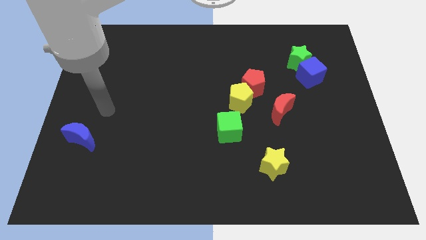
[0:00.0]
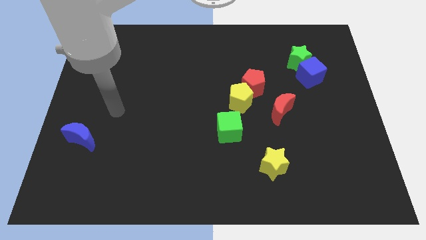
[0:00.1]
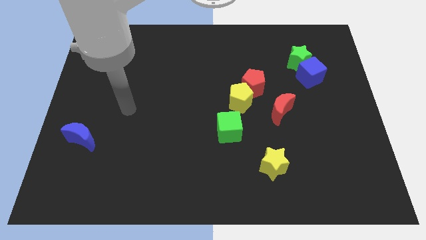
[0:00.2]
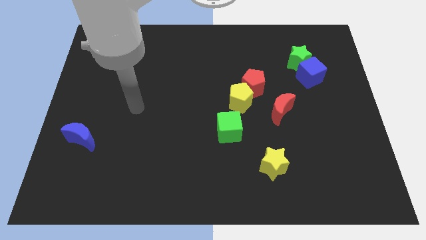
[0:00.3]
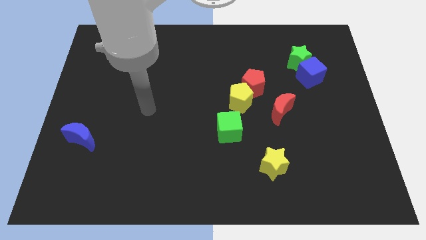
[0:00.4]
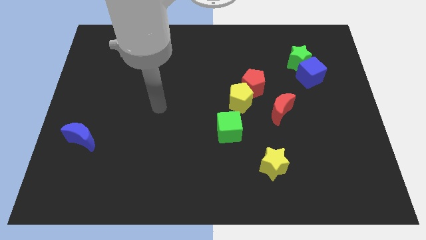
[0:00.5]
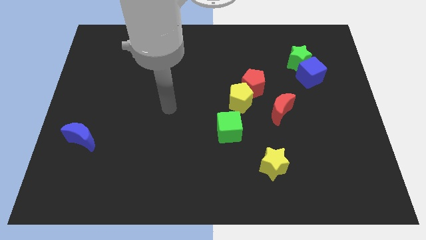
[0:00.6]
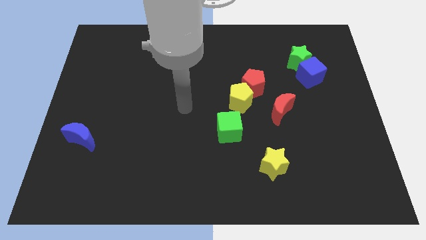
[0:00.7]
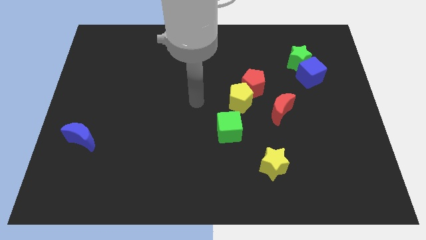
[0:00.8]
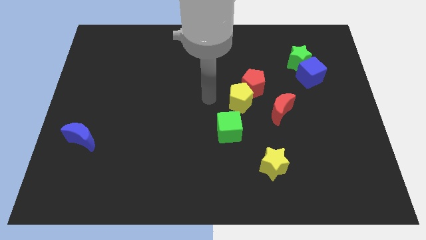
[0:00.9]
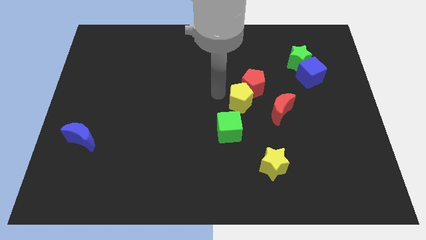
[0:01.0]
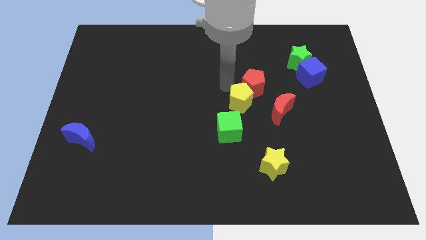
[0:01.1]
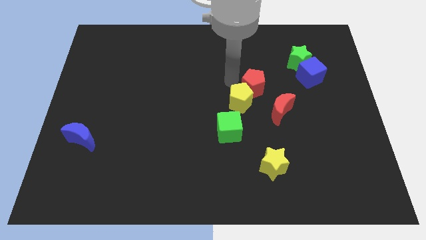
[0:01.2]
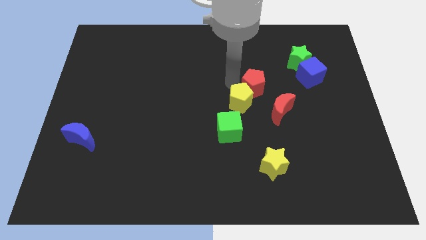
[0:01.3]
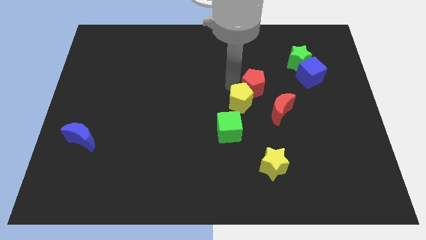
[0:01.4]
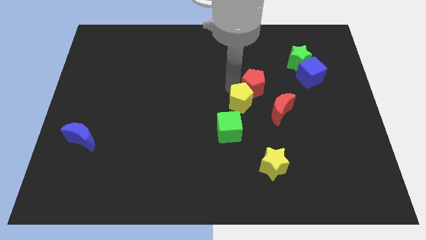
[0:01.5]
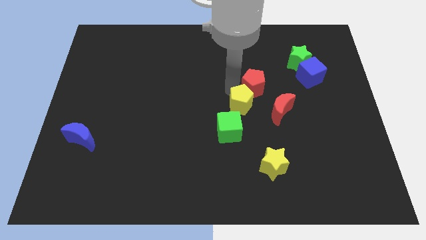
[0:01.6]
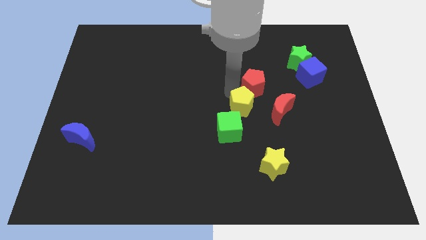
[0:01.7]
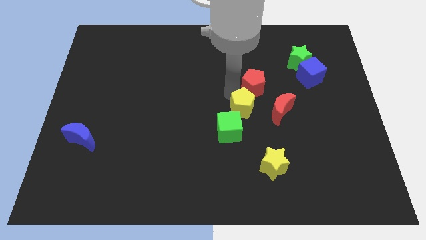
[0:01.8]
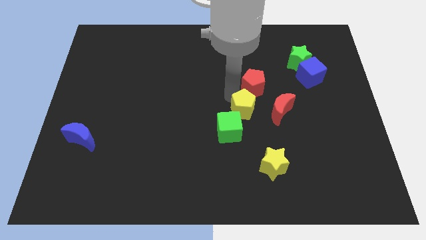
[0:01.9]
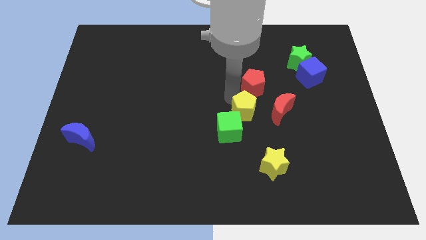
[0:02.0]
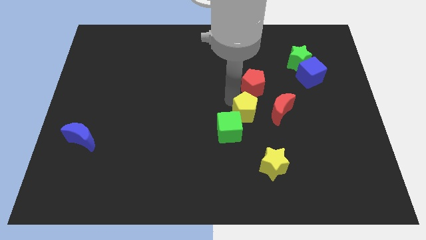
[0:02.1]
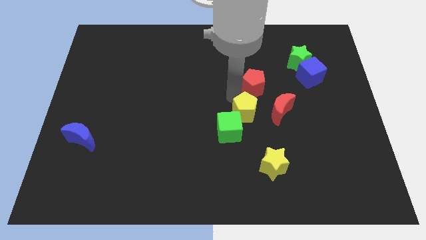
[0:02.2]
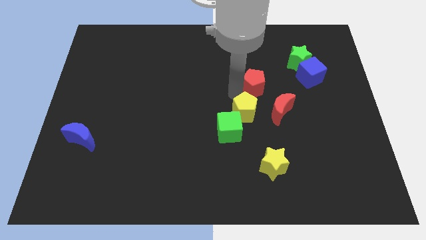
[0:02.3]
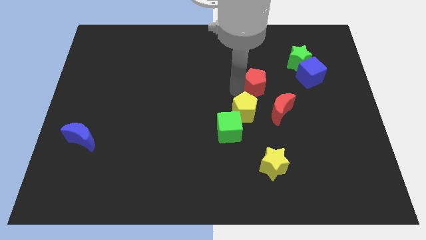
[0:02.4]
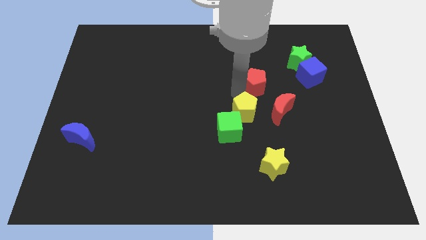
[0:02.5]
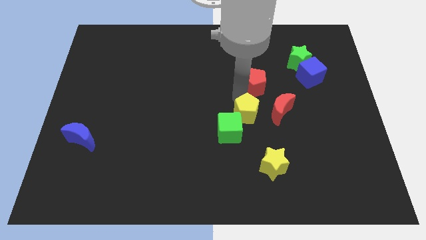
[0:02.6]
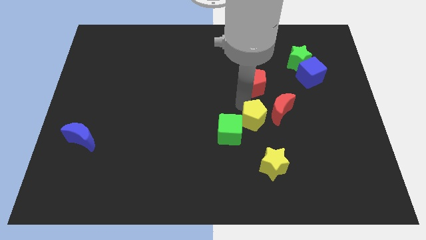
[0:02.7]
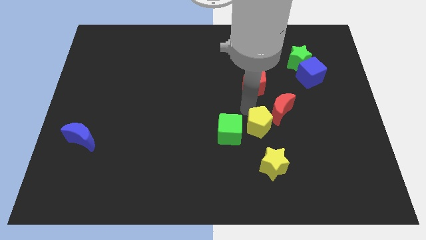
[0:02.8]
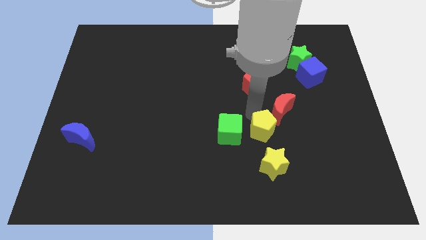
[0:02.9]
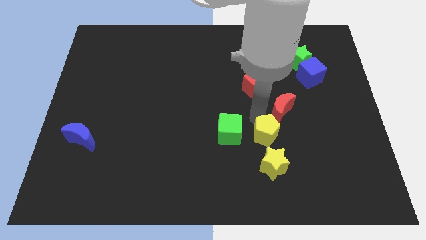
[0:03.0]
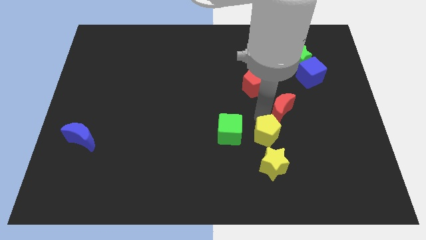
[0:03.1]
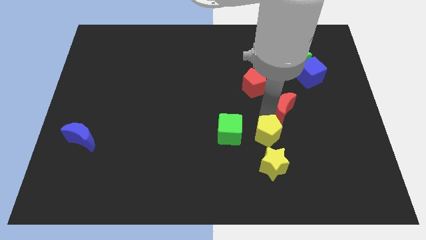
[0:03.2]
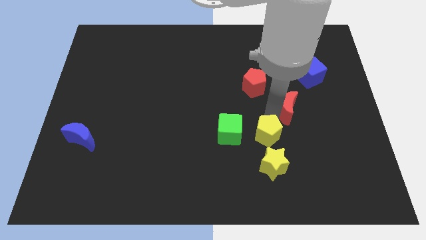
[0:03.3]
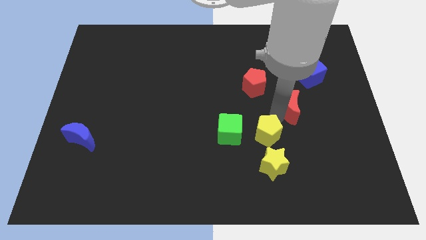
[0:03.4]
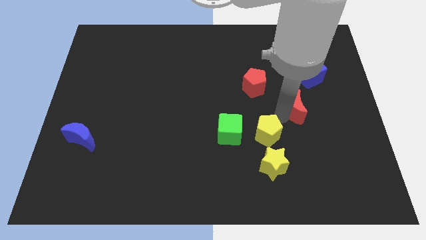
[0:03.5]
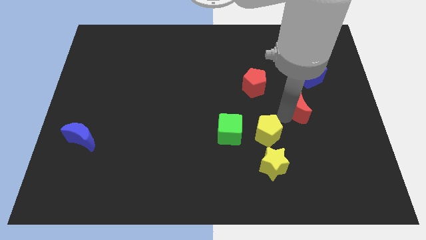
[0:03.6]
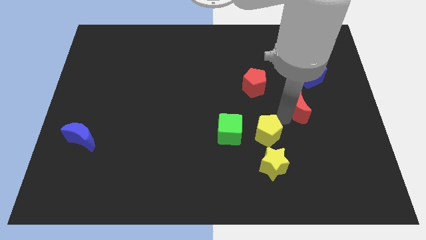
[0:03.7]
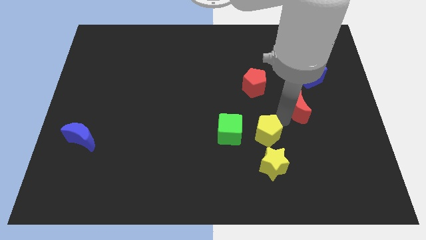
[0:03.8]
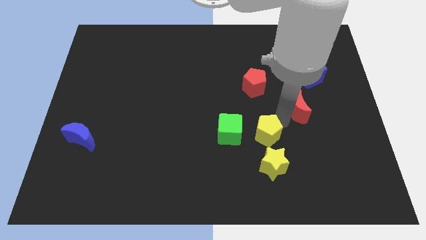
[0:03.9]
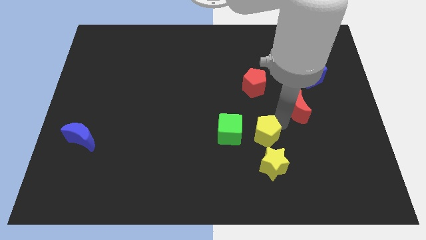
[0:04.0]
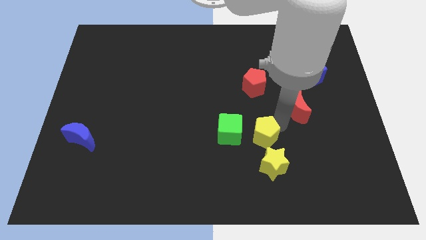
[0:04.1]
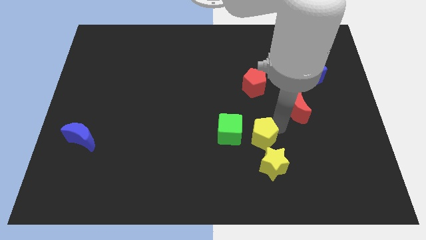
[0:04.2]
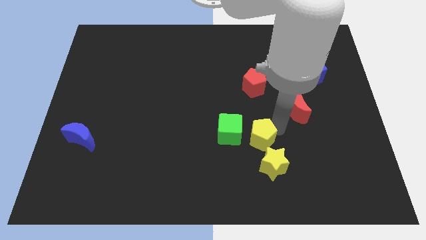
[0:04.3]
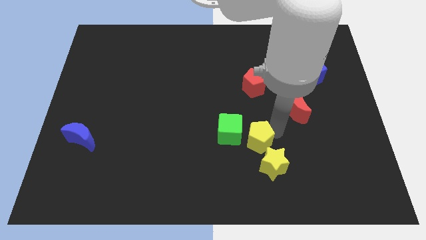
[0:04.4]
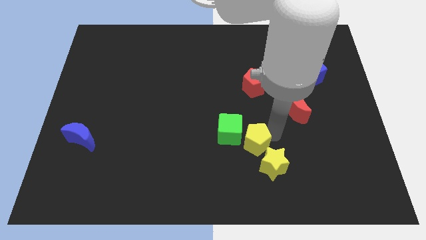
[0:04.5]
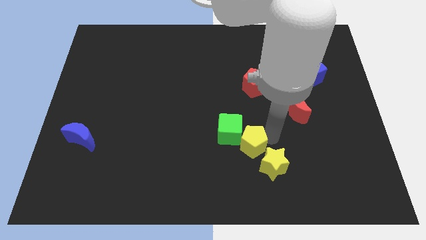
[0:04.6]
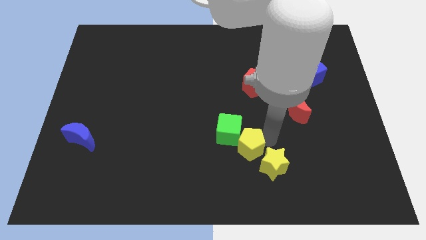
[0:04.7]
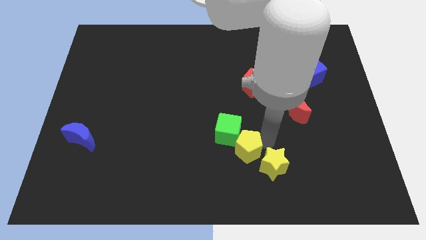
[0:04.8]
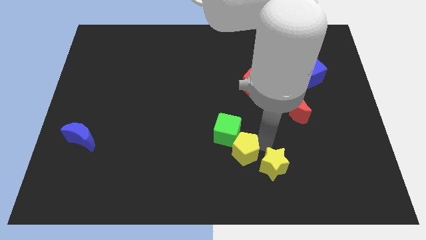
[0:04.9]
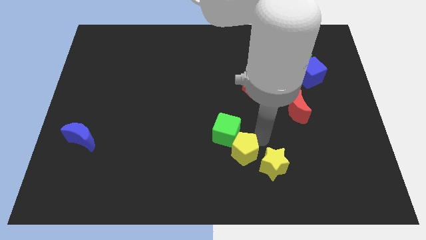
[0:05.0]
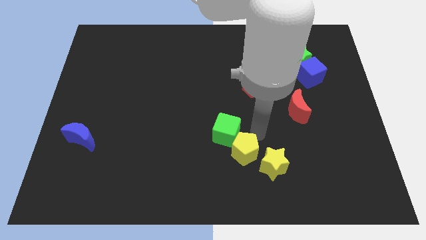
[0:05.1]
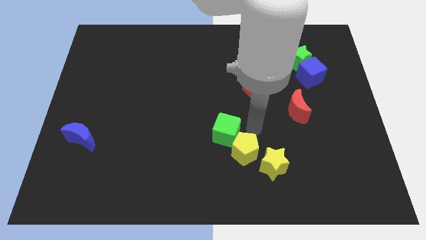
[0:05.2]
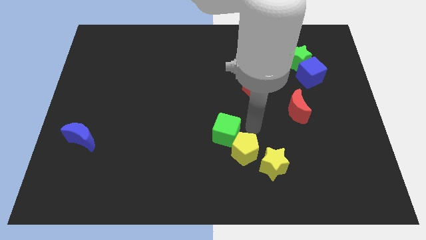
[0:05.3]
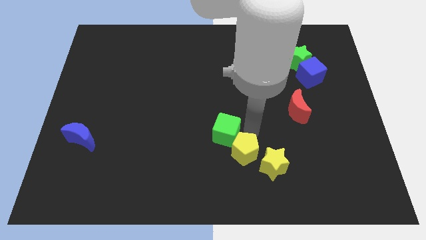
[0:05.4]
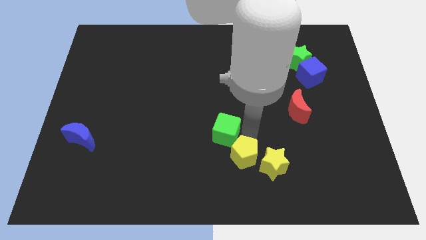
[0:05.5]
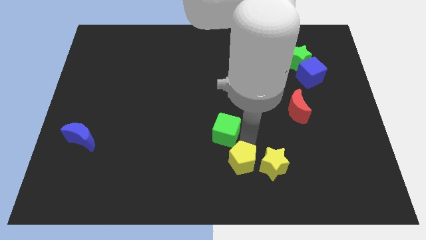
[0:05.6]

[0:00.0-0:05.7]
put the yellow pentagon to the bottom side

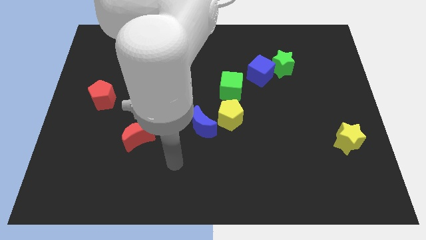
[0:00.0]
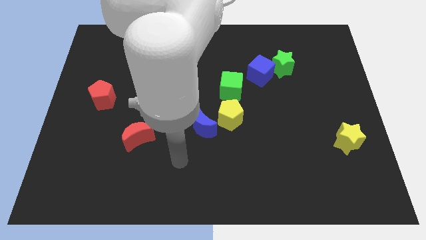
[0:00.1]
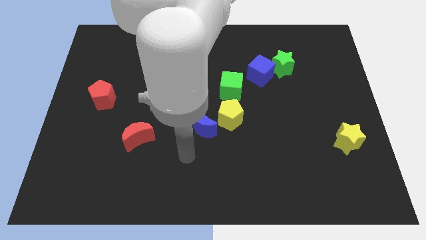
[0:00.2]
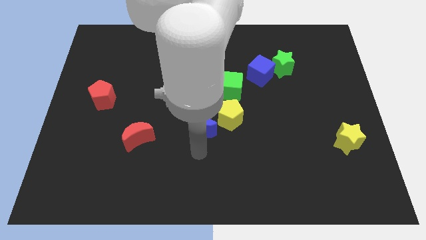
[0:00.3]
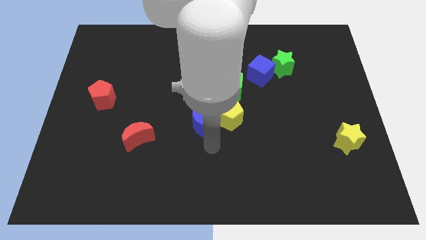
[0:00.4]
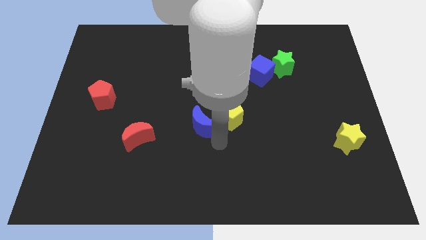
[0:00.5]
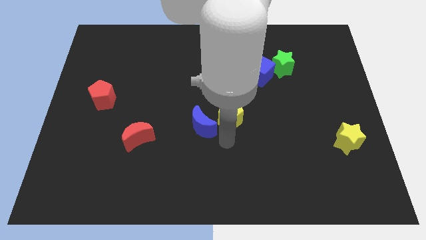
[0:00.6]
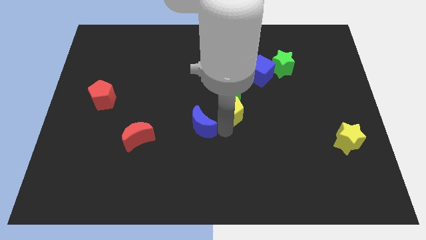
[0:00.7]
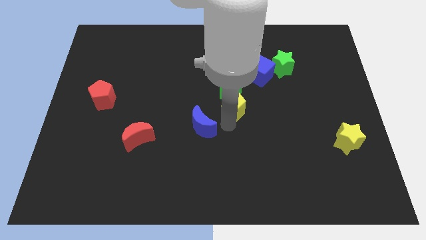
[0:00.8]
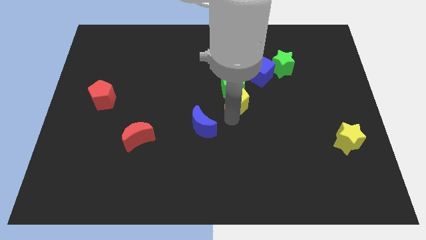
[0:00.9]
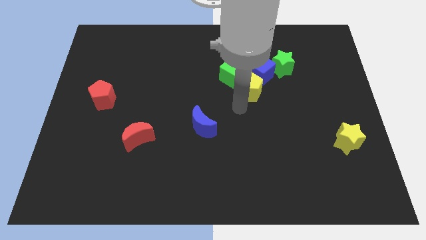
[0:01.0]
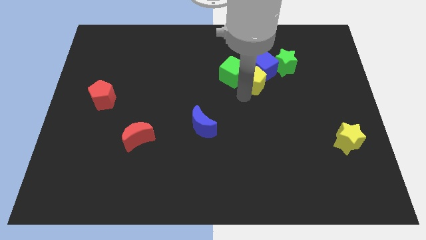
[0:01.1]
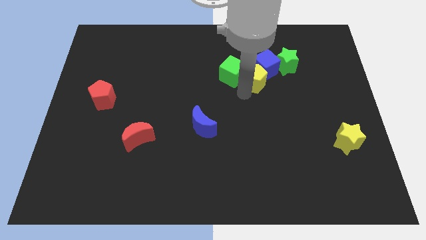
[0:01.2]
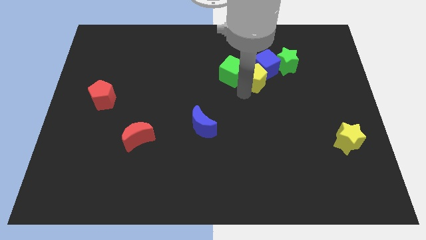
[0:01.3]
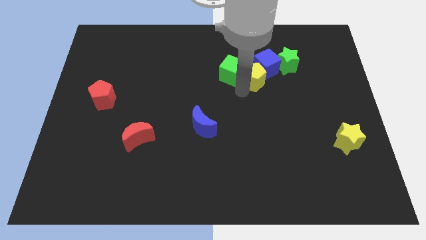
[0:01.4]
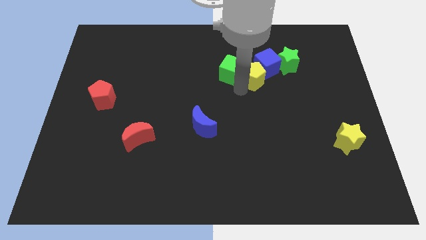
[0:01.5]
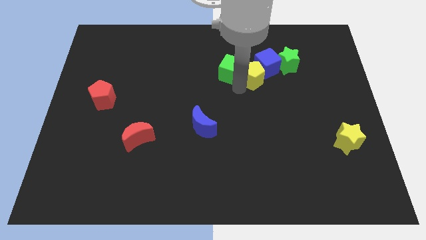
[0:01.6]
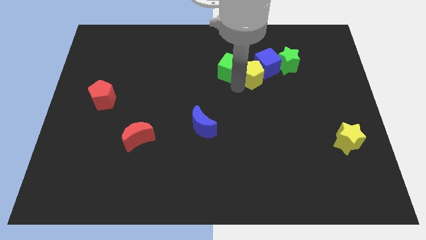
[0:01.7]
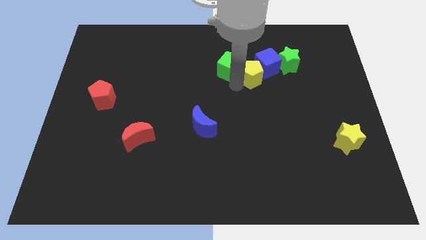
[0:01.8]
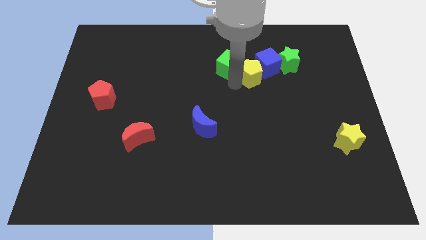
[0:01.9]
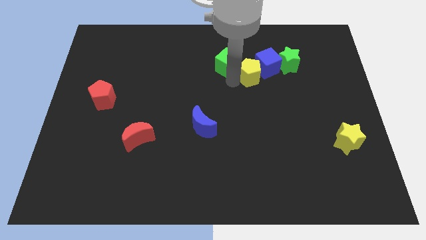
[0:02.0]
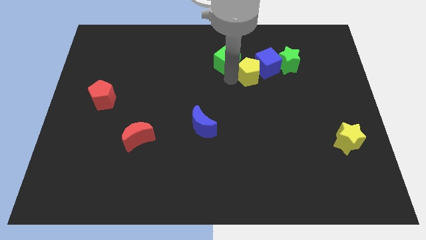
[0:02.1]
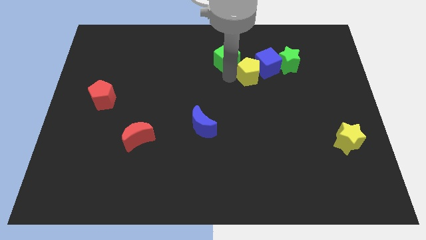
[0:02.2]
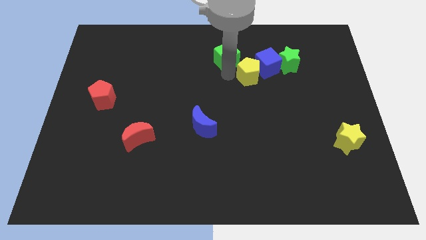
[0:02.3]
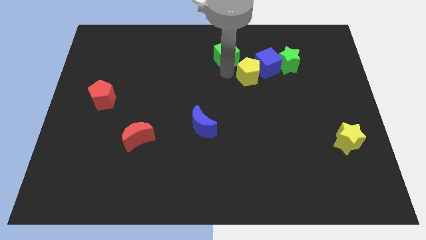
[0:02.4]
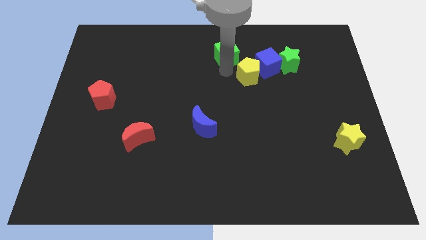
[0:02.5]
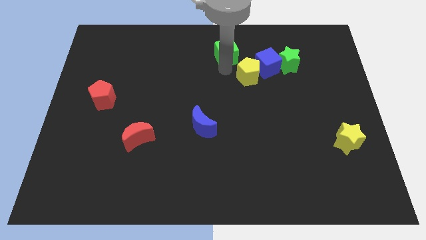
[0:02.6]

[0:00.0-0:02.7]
move the green cube to the top
